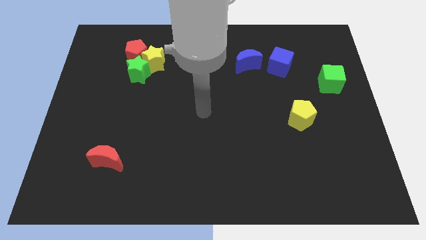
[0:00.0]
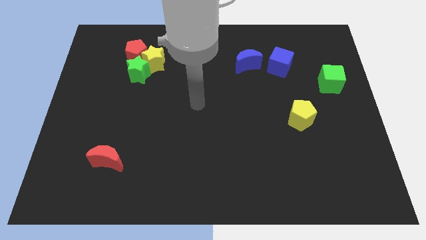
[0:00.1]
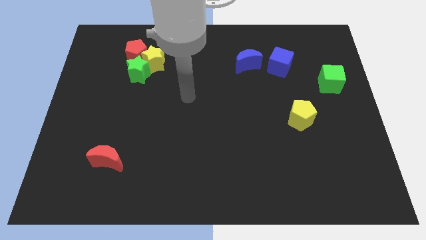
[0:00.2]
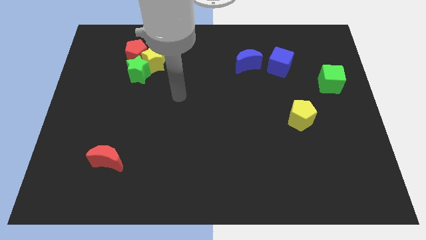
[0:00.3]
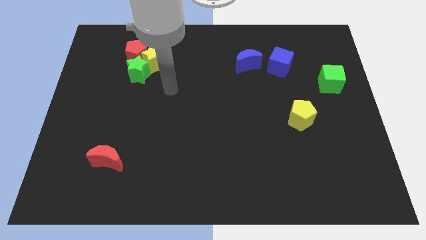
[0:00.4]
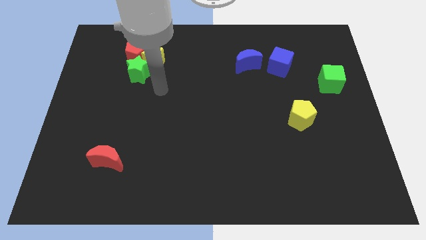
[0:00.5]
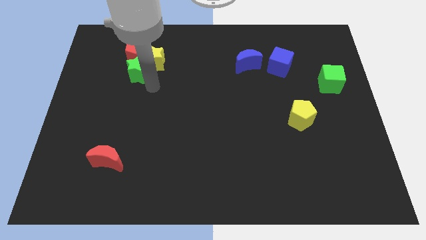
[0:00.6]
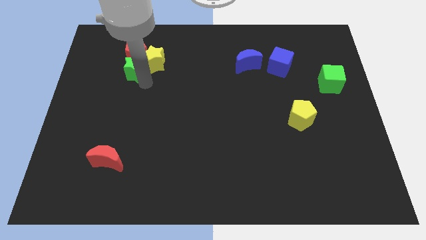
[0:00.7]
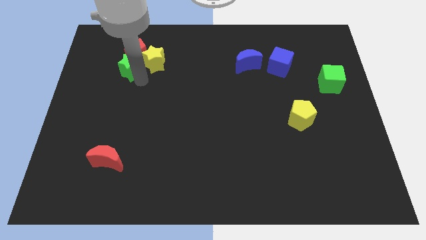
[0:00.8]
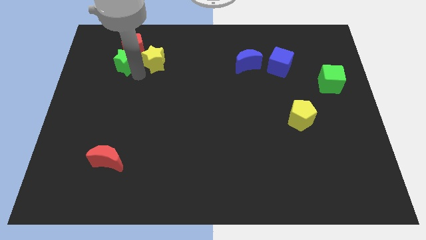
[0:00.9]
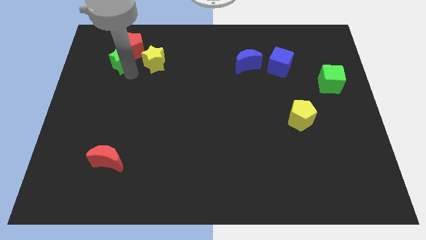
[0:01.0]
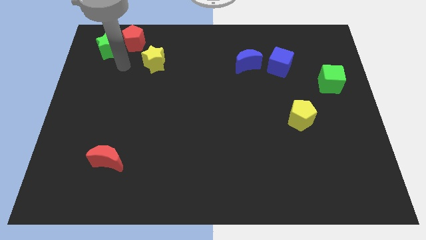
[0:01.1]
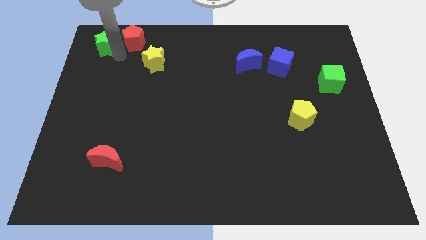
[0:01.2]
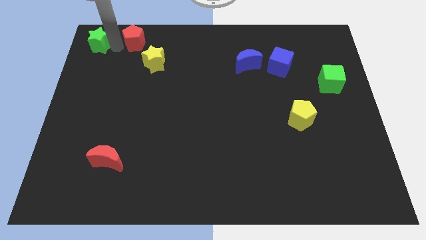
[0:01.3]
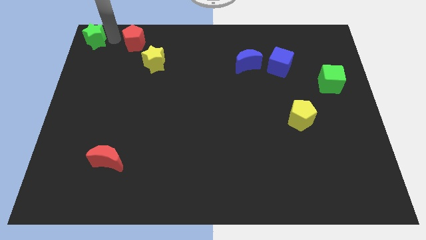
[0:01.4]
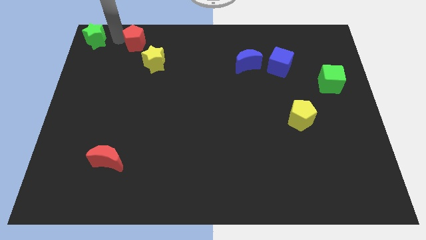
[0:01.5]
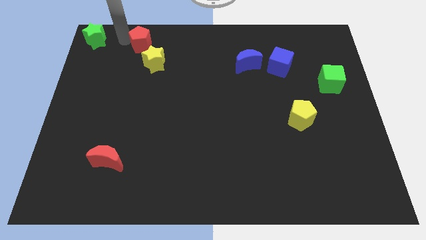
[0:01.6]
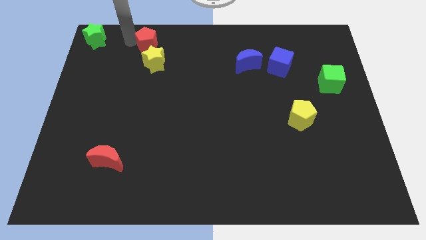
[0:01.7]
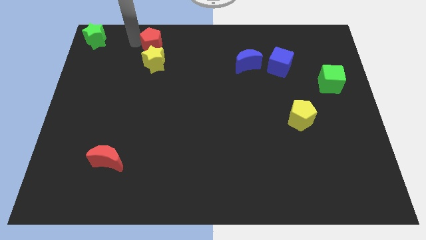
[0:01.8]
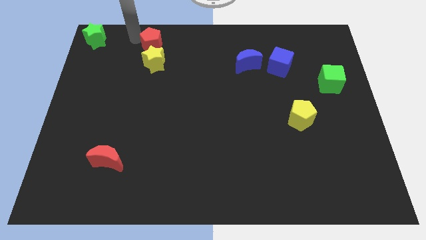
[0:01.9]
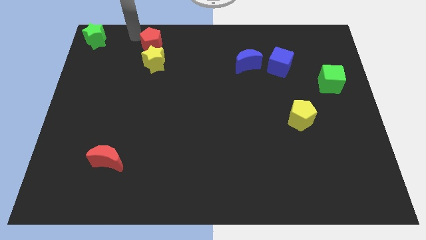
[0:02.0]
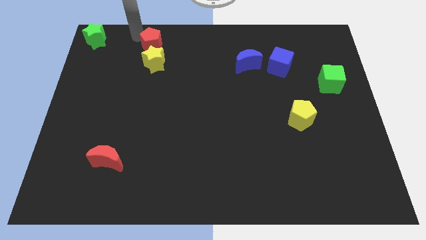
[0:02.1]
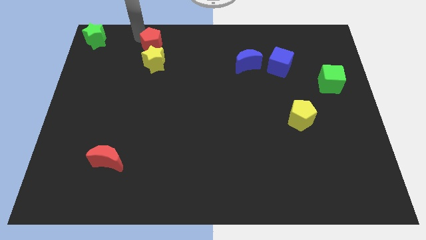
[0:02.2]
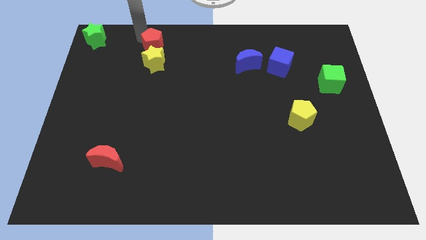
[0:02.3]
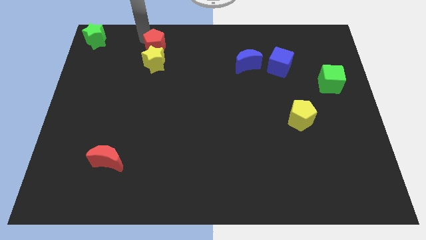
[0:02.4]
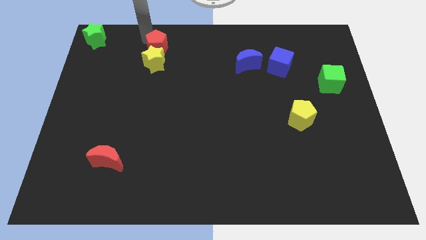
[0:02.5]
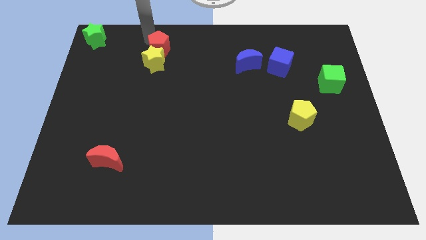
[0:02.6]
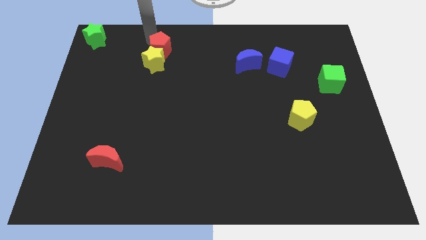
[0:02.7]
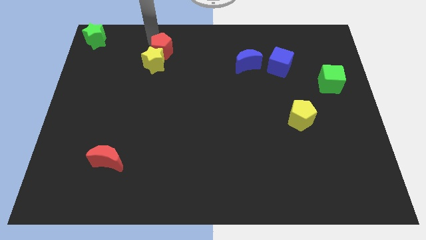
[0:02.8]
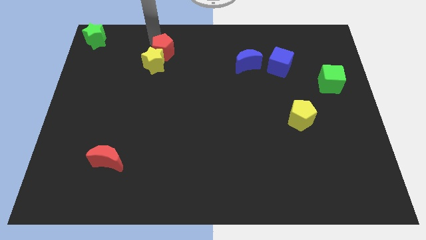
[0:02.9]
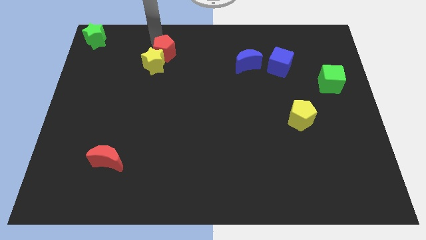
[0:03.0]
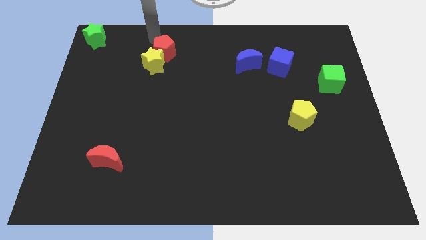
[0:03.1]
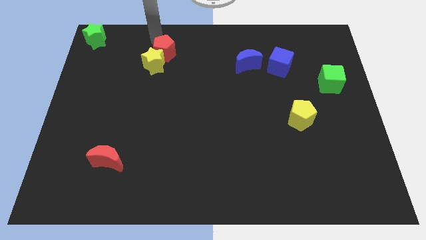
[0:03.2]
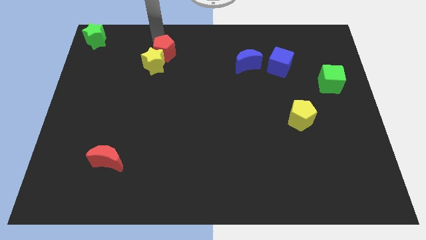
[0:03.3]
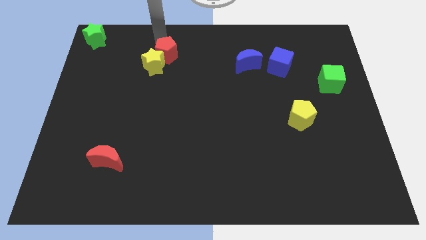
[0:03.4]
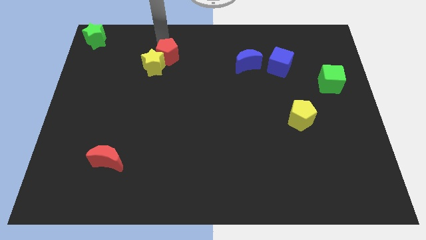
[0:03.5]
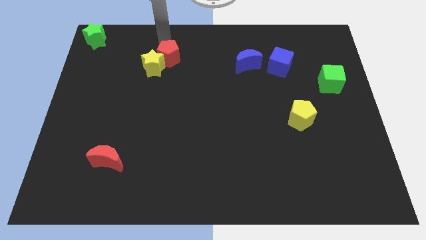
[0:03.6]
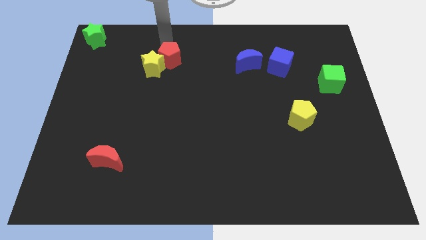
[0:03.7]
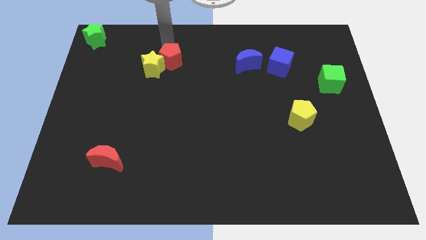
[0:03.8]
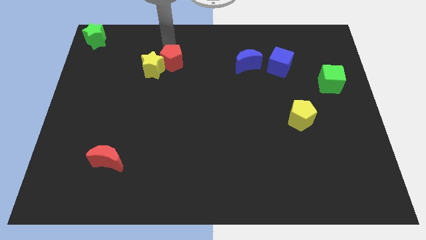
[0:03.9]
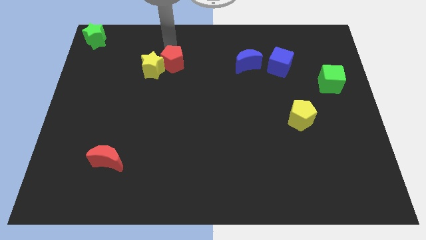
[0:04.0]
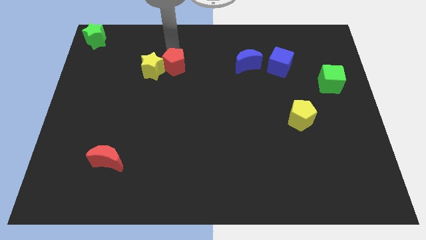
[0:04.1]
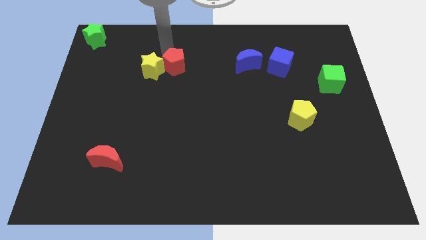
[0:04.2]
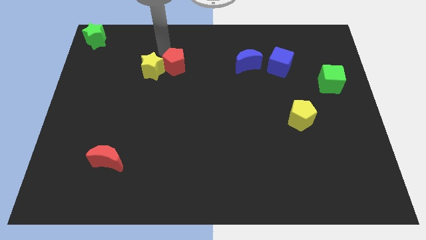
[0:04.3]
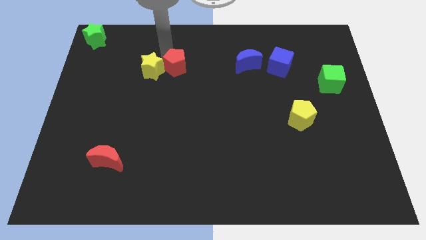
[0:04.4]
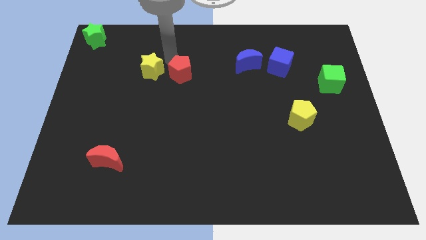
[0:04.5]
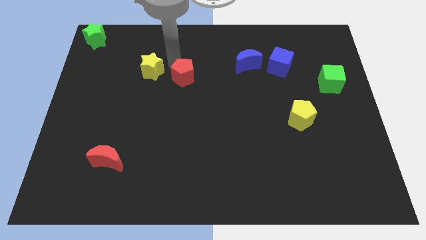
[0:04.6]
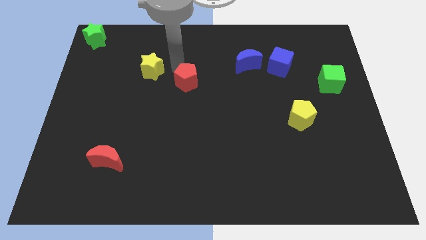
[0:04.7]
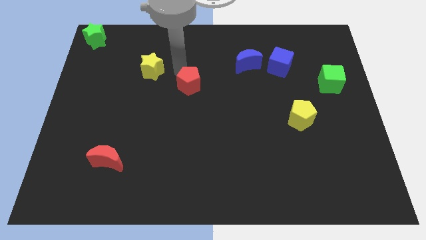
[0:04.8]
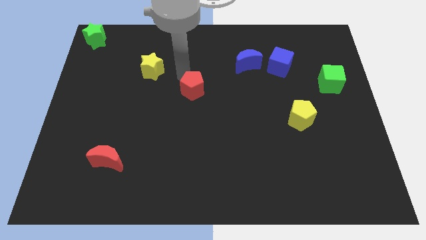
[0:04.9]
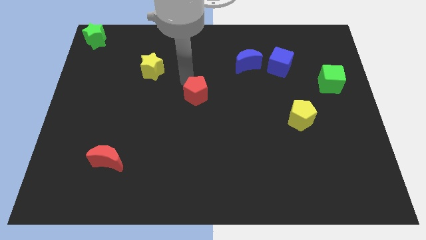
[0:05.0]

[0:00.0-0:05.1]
move the red pentagon diagonally downwards and right

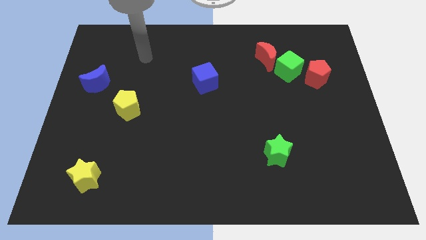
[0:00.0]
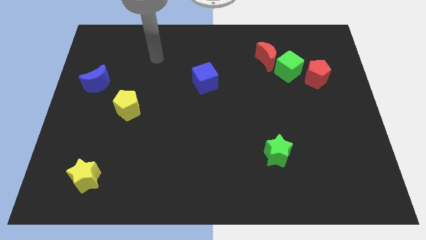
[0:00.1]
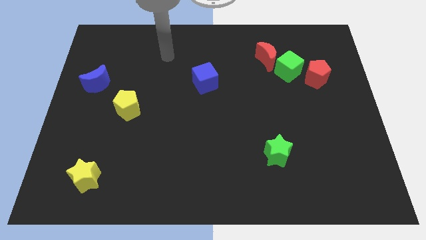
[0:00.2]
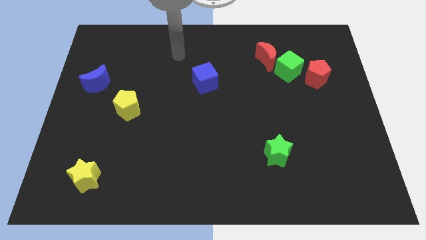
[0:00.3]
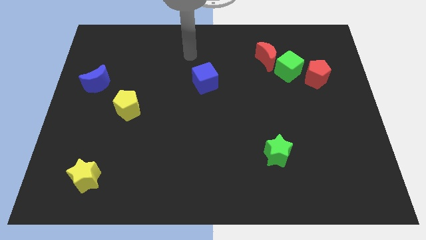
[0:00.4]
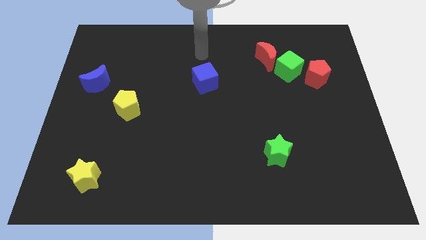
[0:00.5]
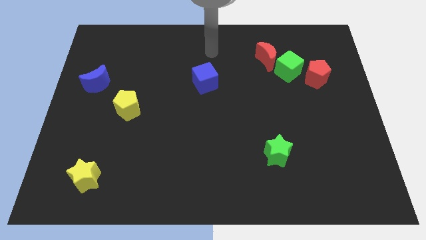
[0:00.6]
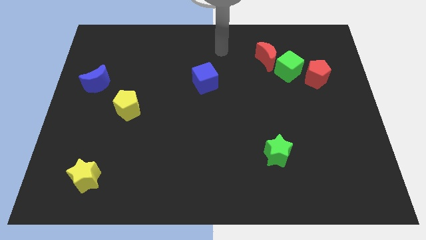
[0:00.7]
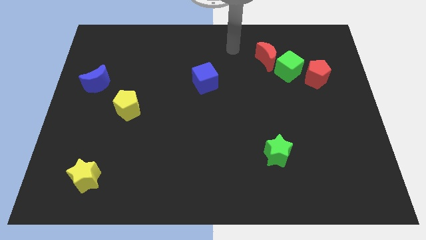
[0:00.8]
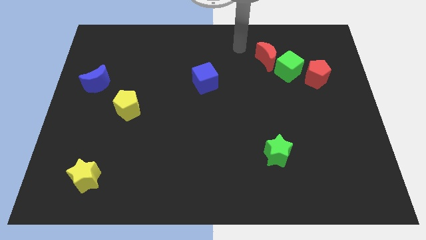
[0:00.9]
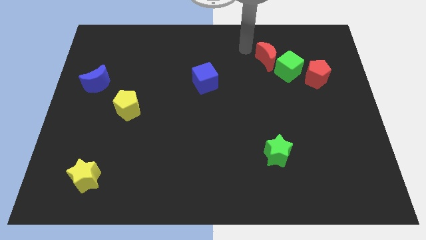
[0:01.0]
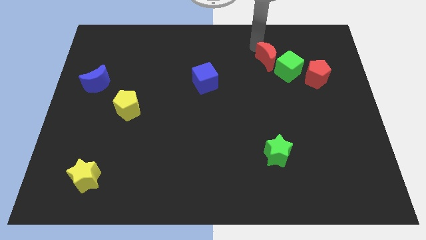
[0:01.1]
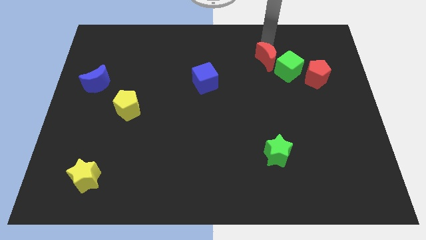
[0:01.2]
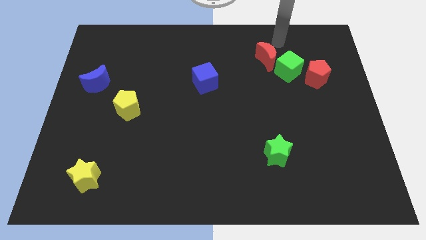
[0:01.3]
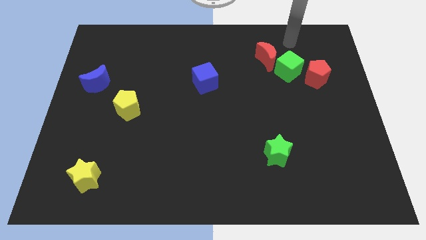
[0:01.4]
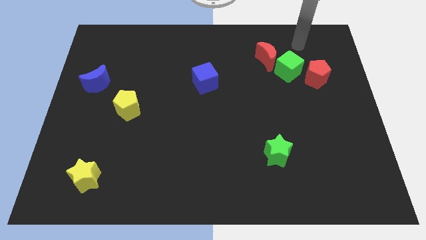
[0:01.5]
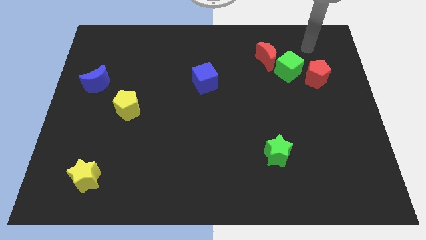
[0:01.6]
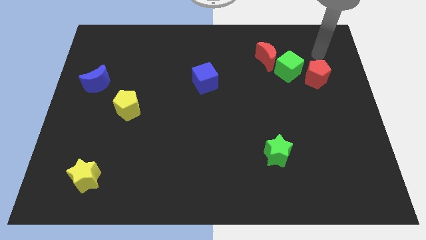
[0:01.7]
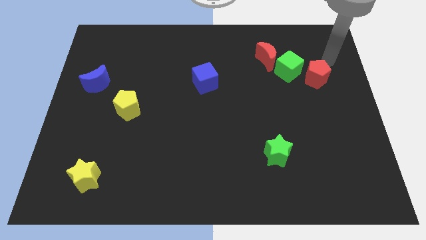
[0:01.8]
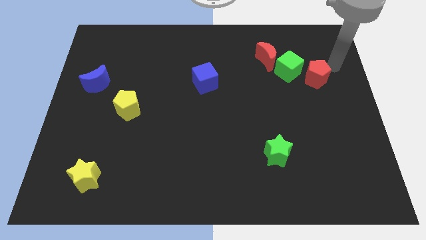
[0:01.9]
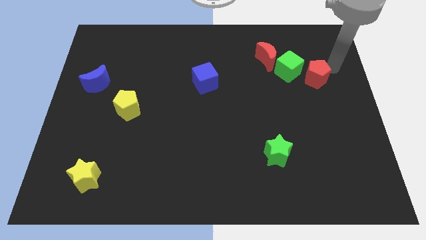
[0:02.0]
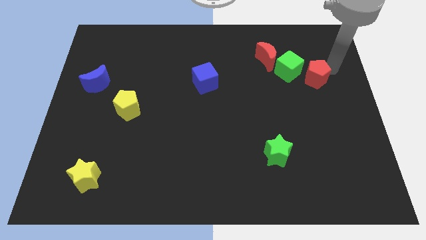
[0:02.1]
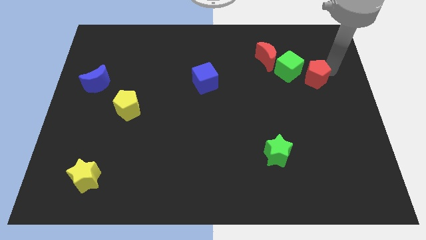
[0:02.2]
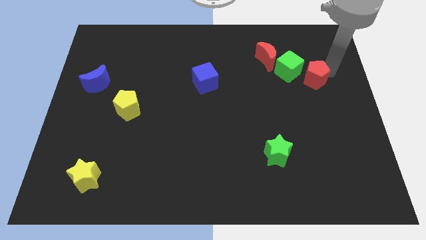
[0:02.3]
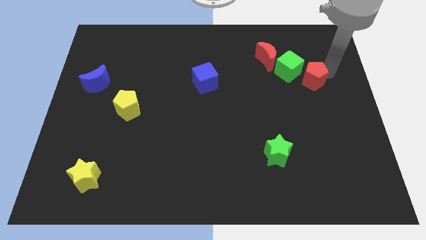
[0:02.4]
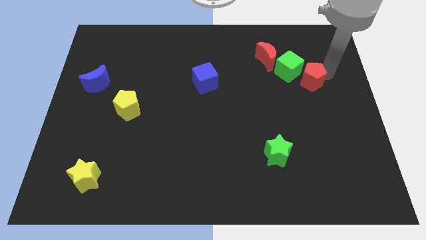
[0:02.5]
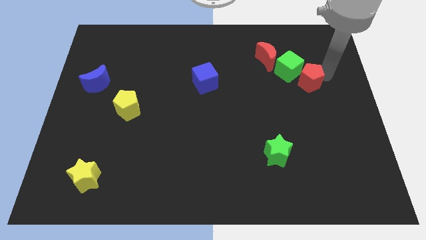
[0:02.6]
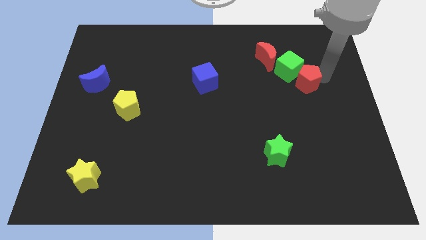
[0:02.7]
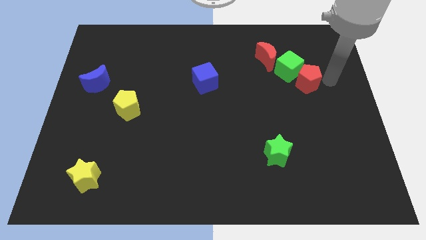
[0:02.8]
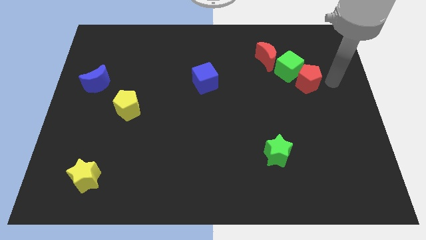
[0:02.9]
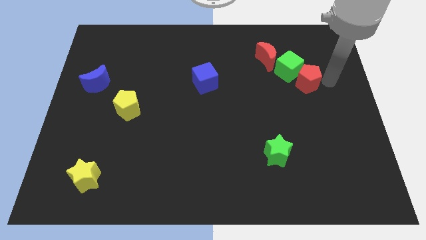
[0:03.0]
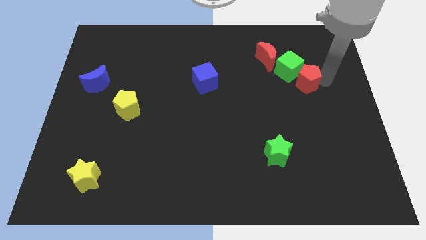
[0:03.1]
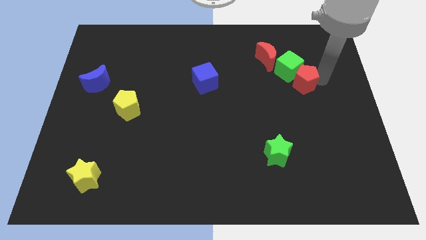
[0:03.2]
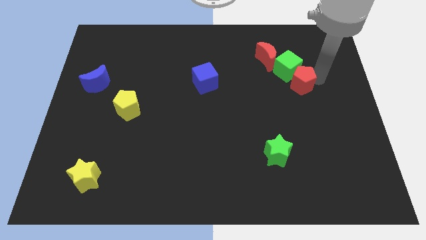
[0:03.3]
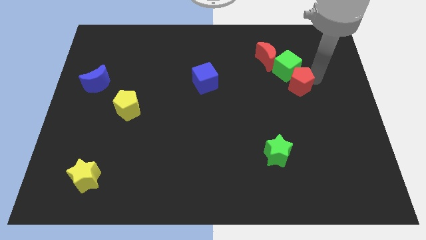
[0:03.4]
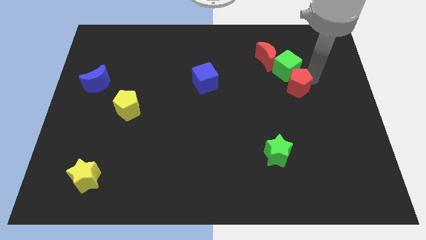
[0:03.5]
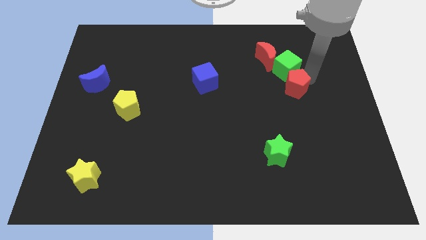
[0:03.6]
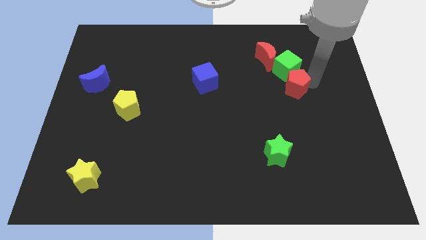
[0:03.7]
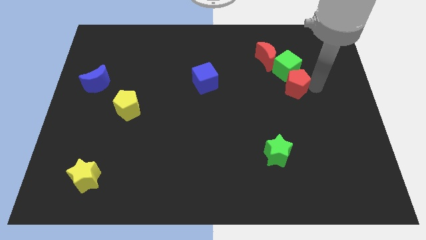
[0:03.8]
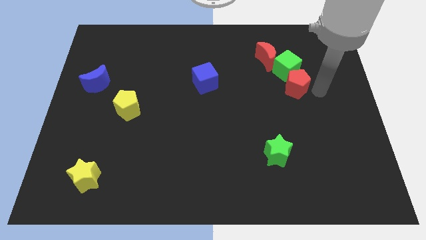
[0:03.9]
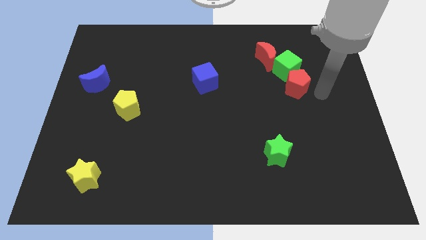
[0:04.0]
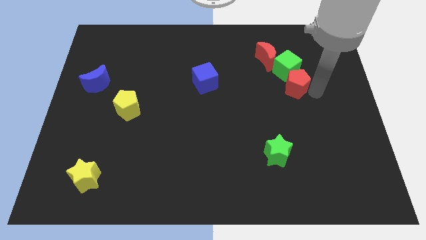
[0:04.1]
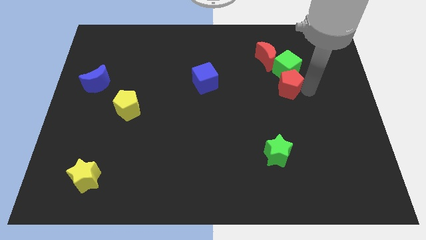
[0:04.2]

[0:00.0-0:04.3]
slightly move the red pentagon to the left
